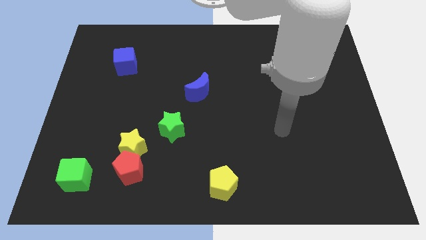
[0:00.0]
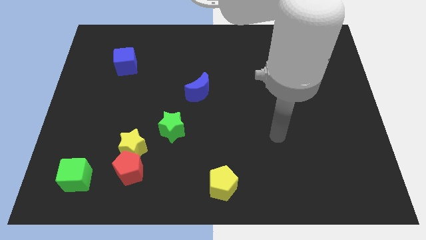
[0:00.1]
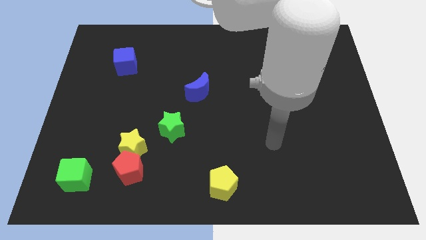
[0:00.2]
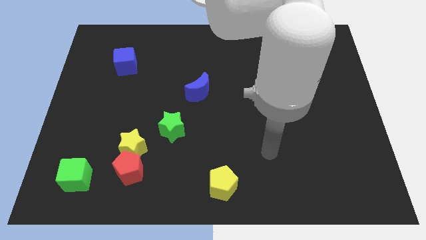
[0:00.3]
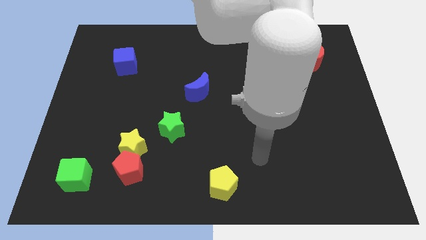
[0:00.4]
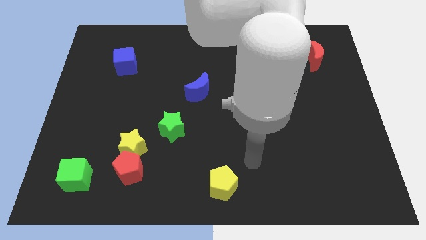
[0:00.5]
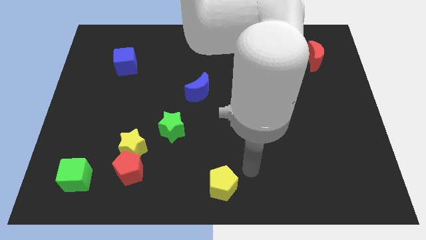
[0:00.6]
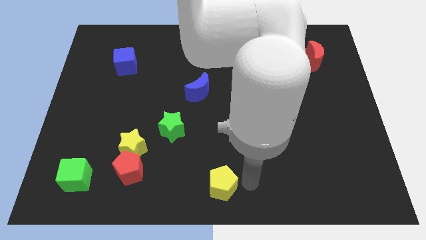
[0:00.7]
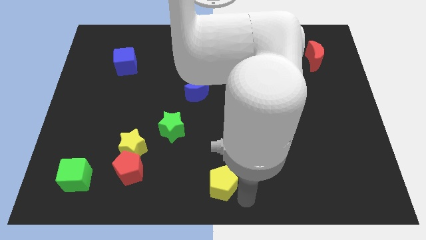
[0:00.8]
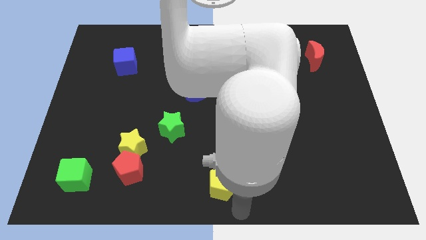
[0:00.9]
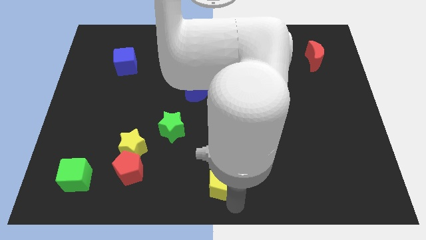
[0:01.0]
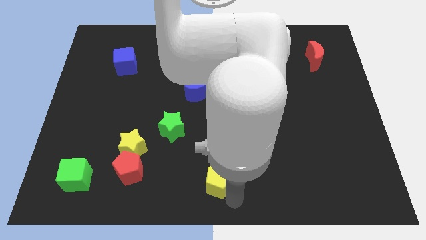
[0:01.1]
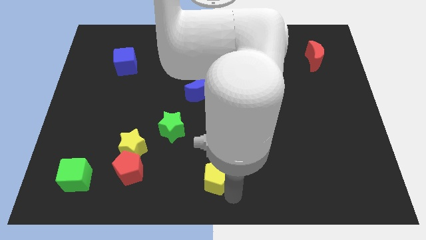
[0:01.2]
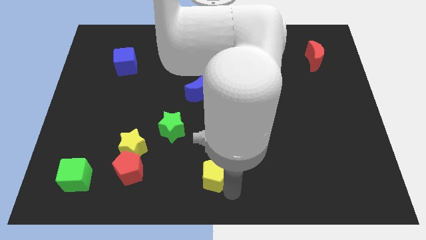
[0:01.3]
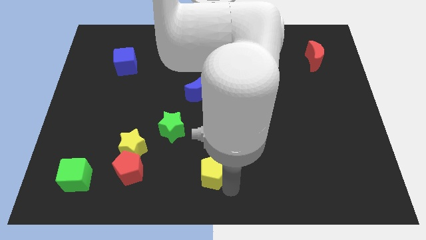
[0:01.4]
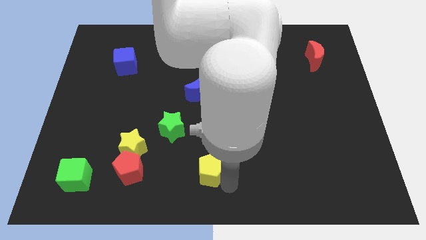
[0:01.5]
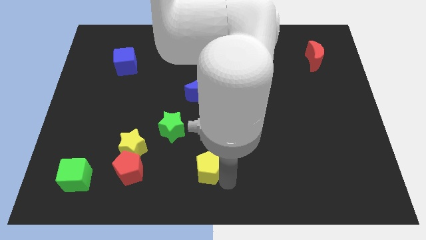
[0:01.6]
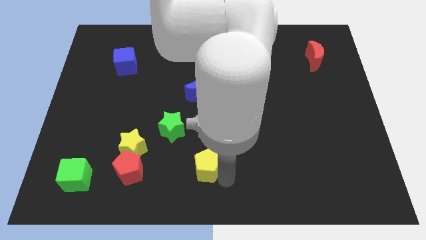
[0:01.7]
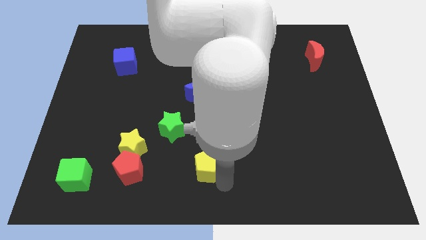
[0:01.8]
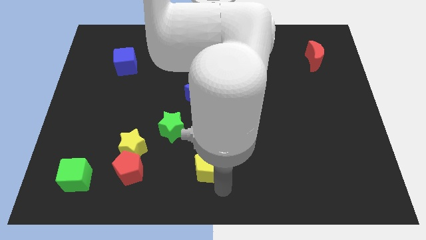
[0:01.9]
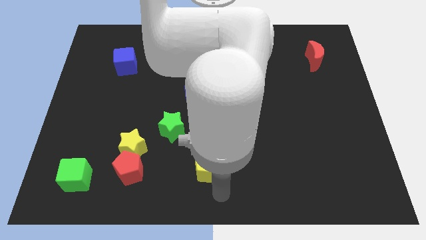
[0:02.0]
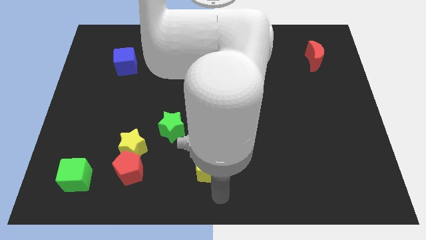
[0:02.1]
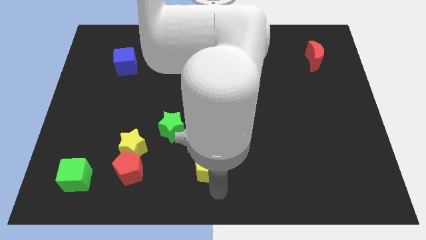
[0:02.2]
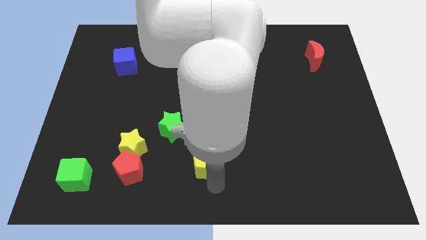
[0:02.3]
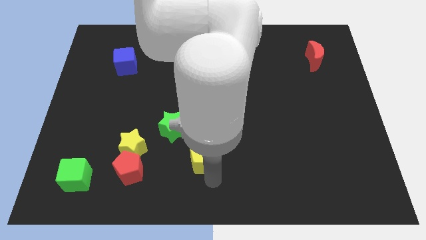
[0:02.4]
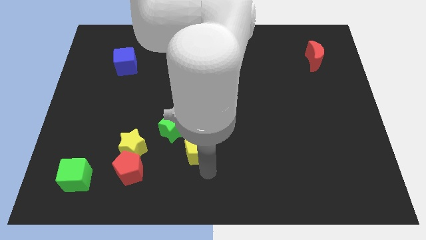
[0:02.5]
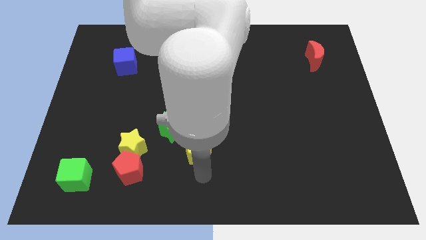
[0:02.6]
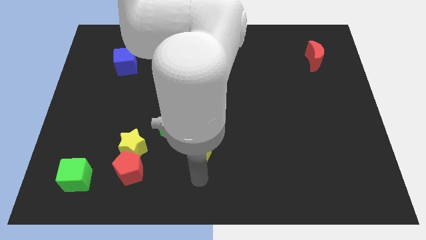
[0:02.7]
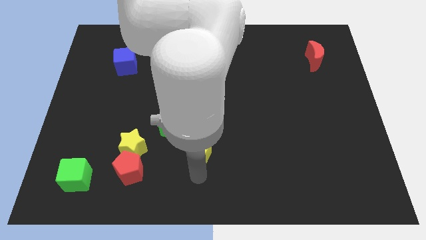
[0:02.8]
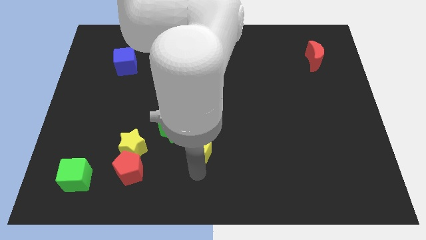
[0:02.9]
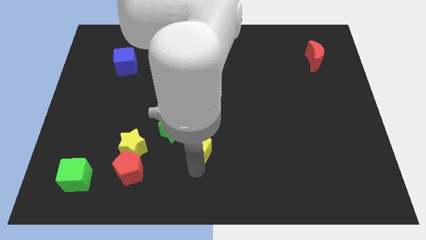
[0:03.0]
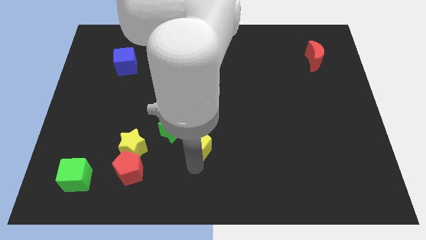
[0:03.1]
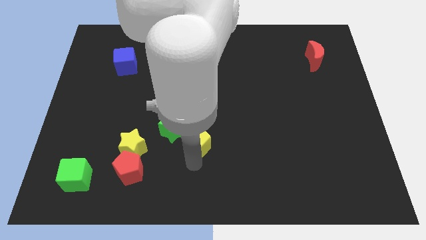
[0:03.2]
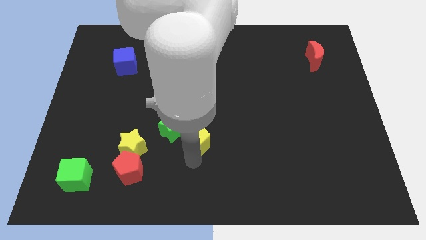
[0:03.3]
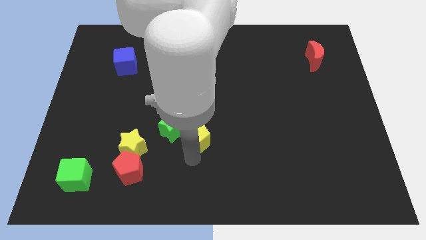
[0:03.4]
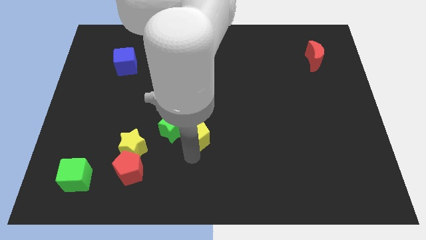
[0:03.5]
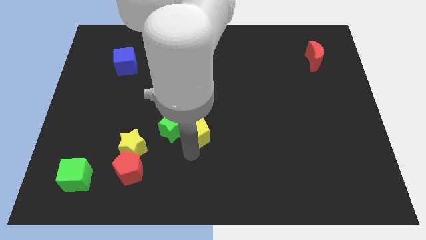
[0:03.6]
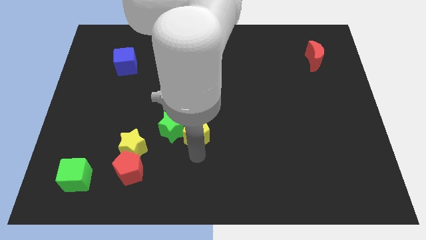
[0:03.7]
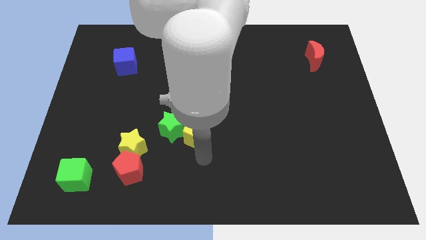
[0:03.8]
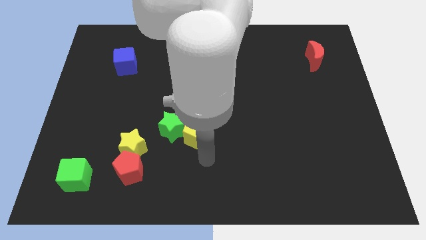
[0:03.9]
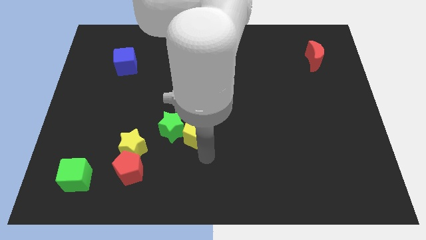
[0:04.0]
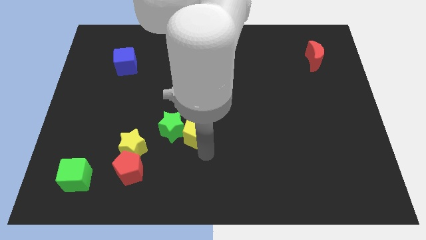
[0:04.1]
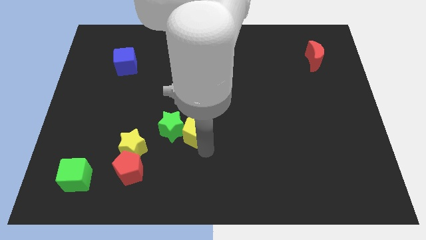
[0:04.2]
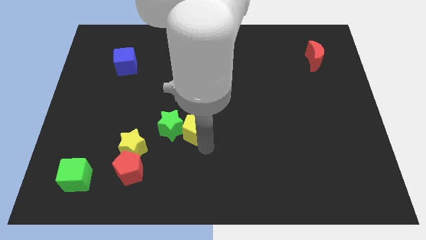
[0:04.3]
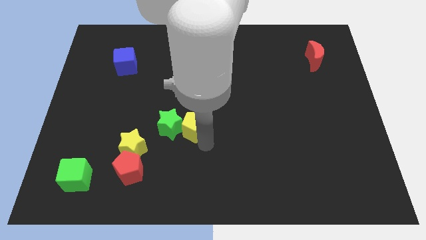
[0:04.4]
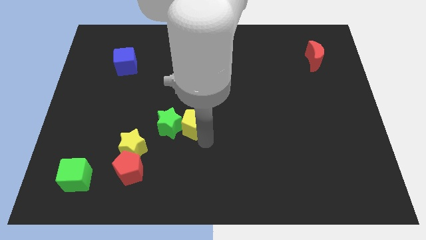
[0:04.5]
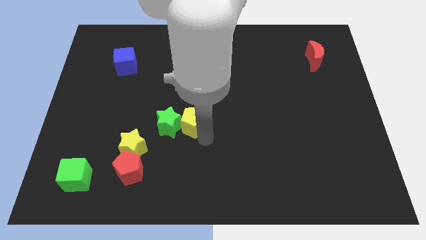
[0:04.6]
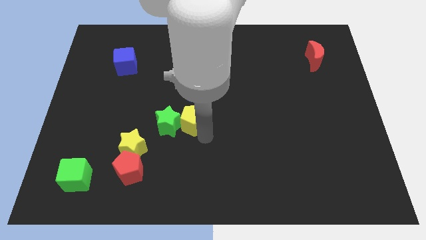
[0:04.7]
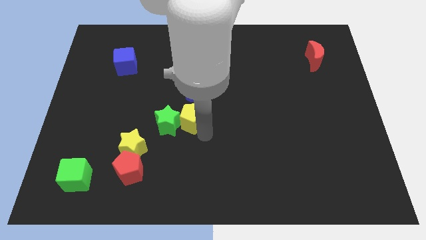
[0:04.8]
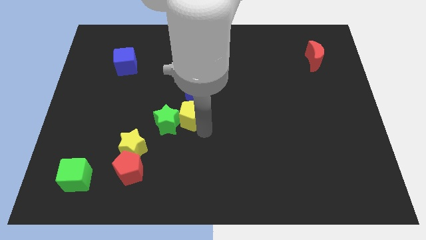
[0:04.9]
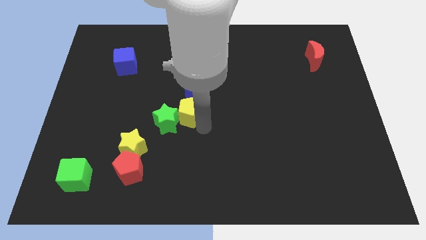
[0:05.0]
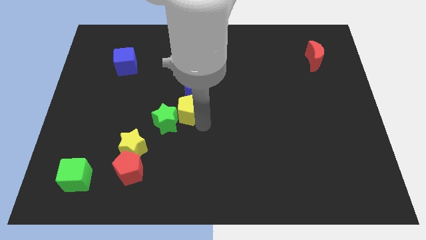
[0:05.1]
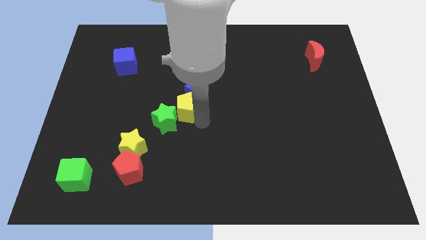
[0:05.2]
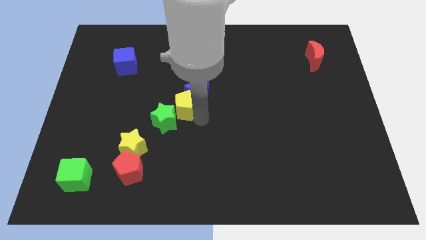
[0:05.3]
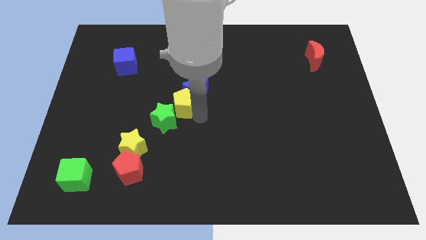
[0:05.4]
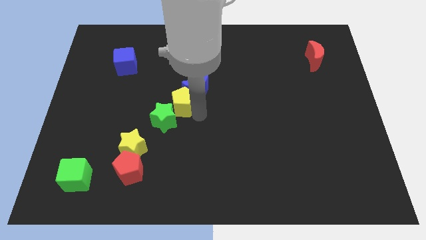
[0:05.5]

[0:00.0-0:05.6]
slide the yellow pentagon to the left of the blue moon

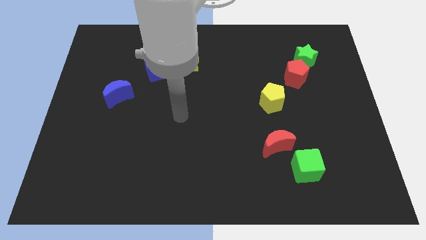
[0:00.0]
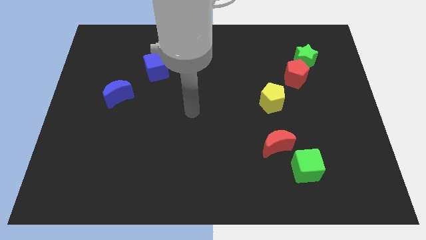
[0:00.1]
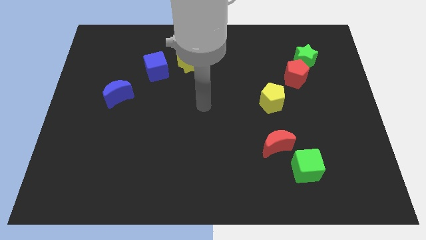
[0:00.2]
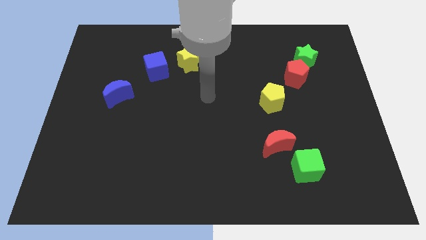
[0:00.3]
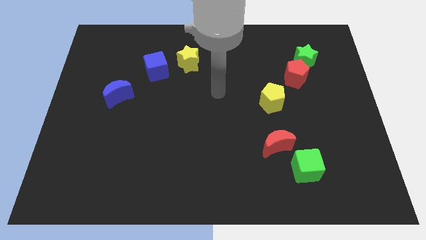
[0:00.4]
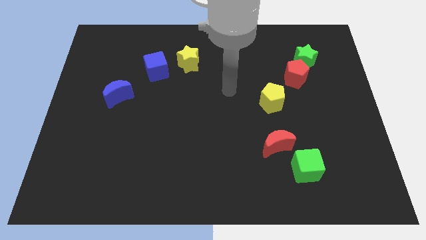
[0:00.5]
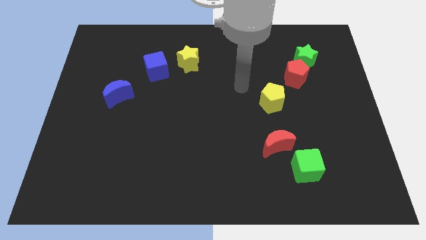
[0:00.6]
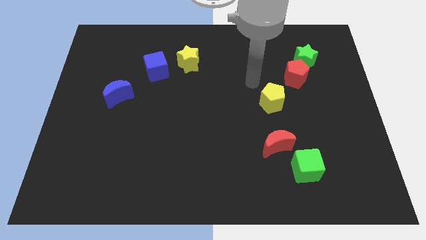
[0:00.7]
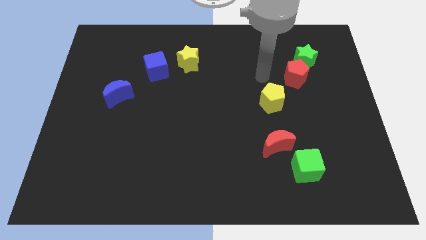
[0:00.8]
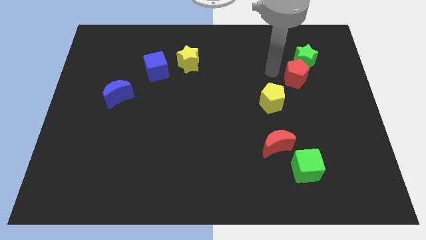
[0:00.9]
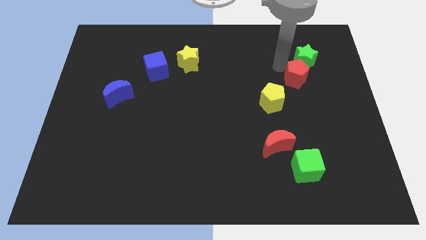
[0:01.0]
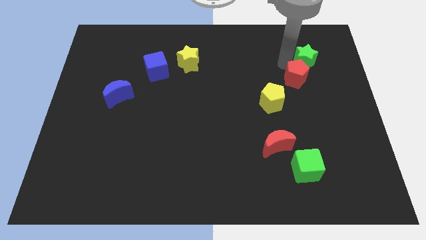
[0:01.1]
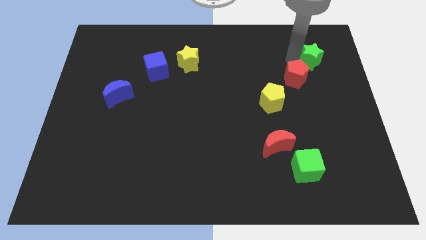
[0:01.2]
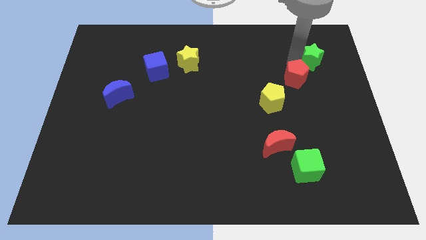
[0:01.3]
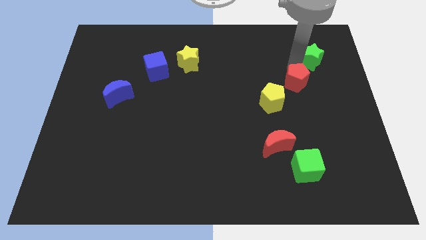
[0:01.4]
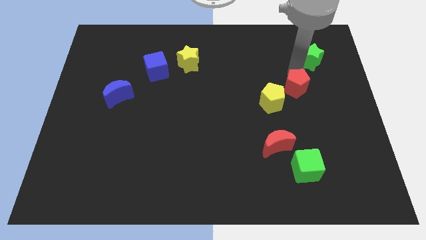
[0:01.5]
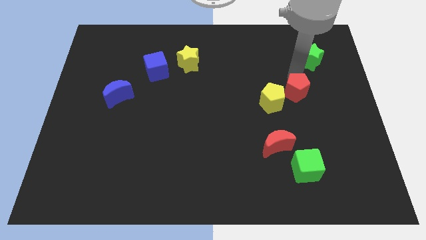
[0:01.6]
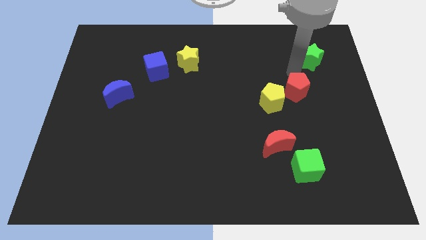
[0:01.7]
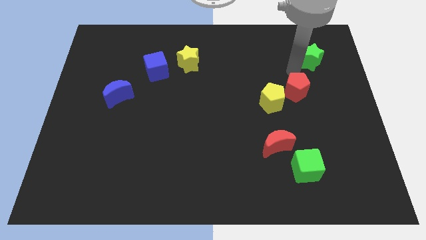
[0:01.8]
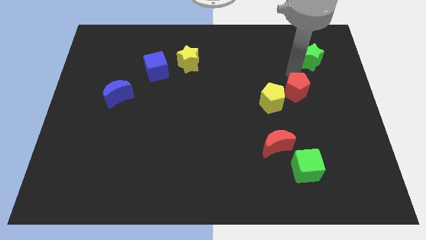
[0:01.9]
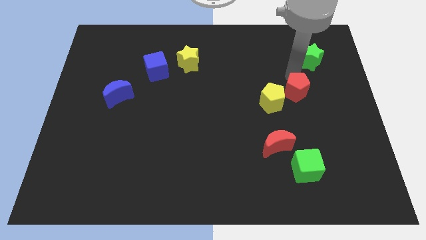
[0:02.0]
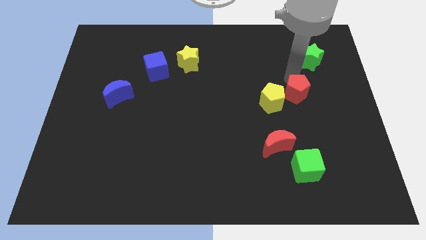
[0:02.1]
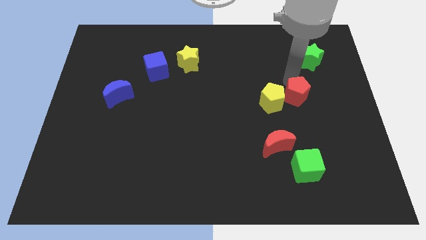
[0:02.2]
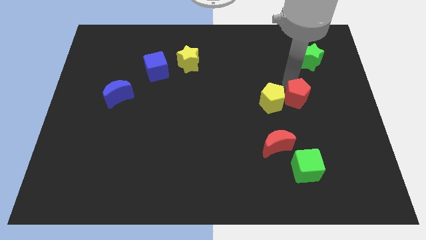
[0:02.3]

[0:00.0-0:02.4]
move the red pentagon to the bottom right side of the yellow pentagon
